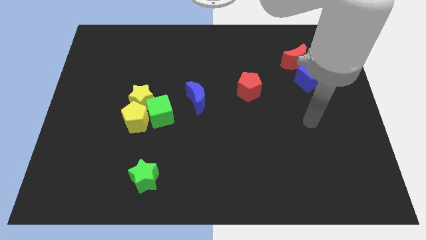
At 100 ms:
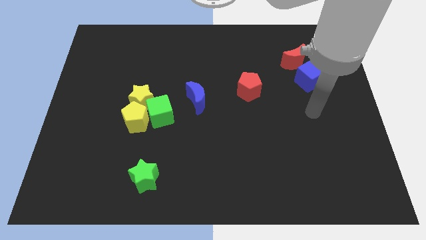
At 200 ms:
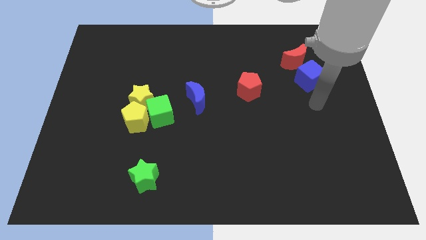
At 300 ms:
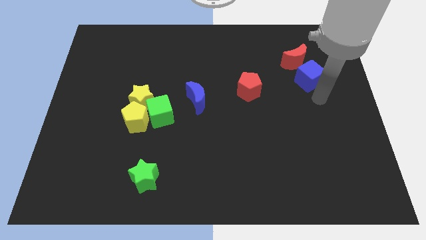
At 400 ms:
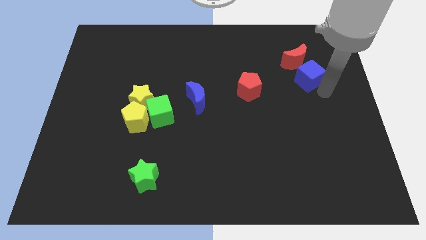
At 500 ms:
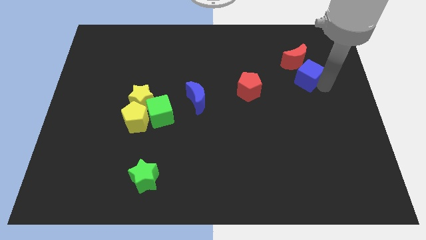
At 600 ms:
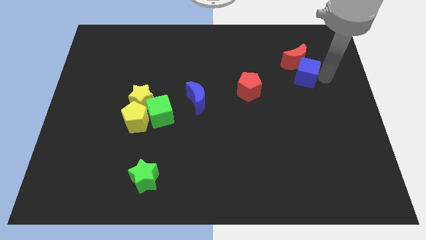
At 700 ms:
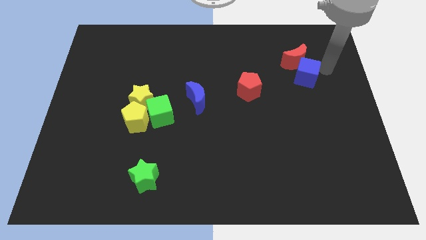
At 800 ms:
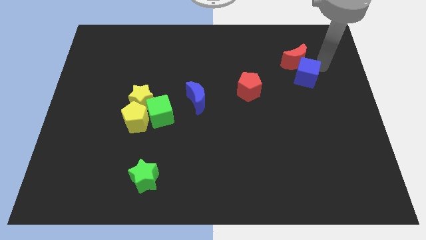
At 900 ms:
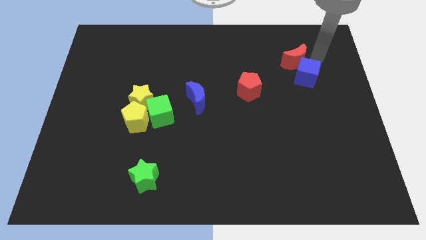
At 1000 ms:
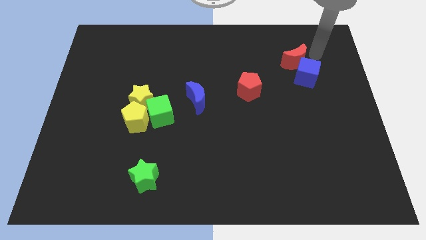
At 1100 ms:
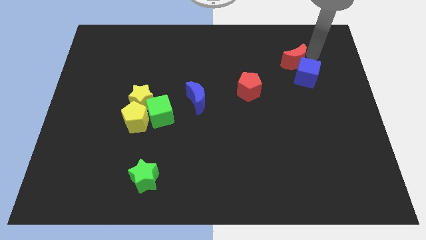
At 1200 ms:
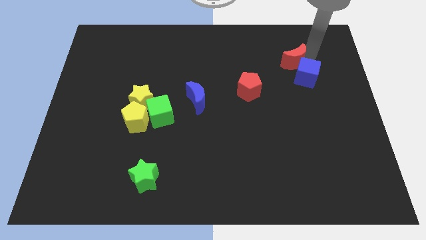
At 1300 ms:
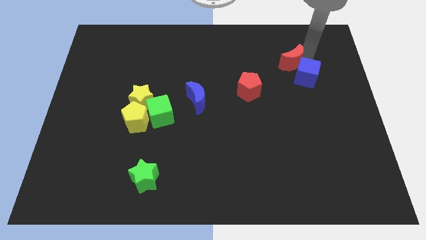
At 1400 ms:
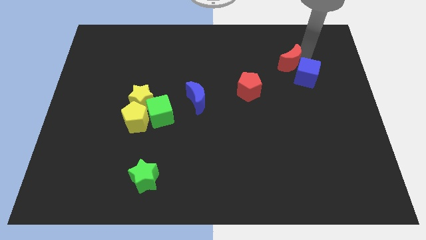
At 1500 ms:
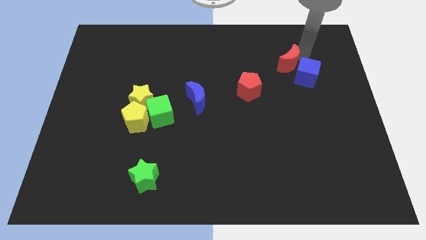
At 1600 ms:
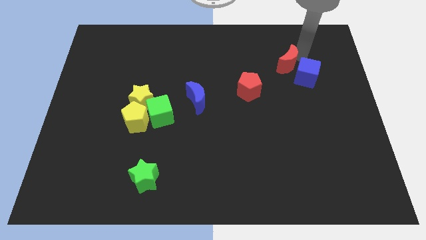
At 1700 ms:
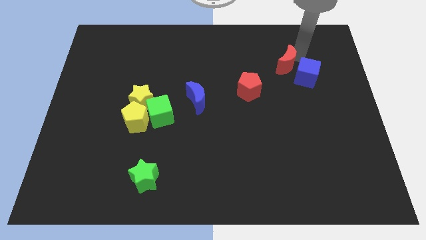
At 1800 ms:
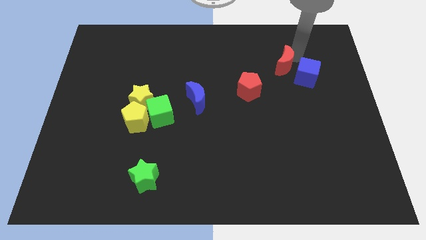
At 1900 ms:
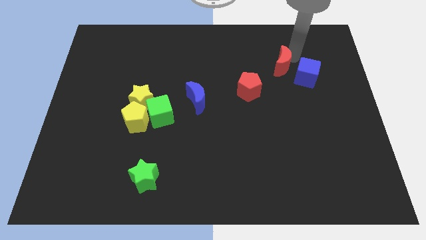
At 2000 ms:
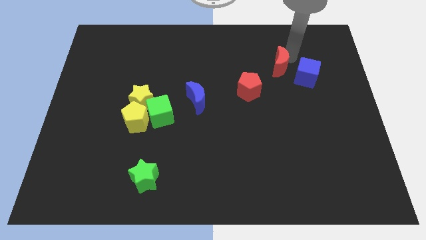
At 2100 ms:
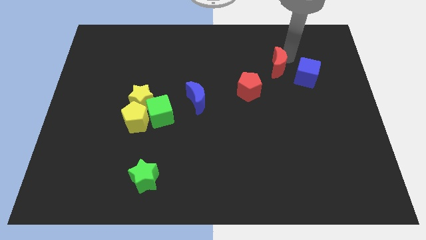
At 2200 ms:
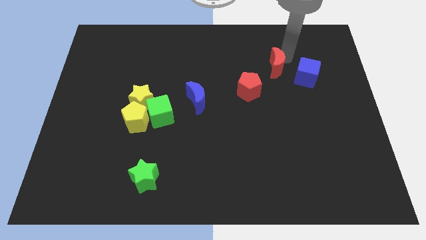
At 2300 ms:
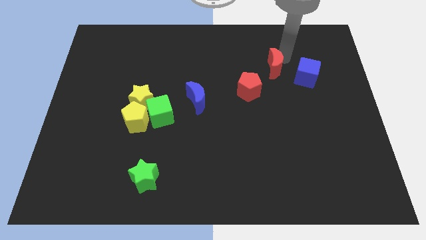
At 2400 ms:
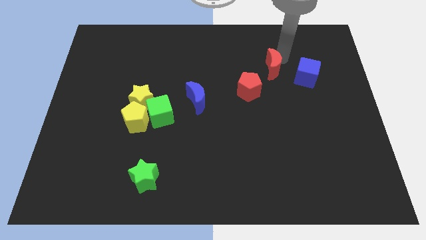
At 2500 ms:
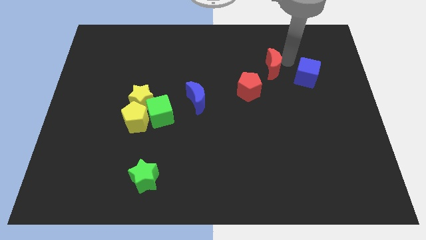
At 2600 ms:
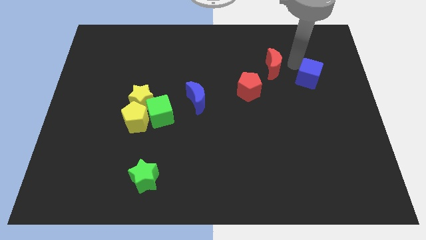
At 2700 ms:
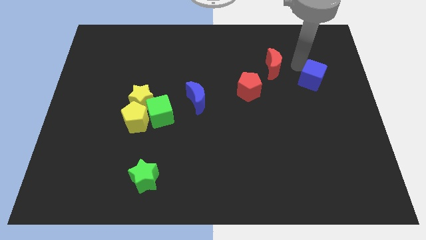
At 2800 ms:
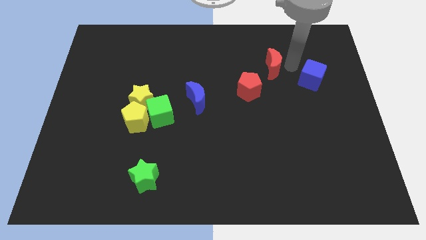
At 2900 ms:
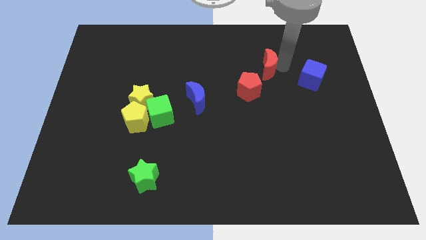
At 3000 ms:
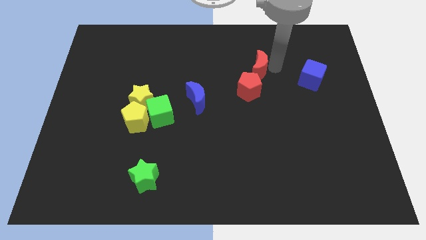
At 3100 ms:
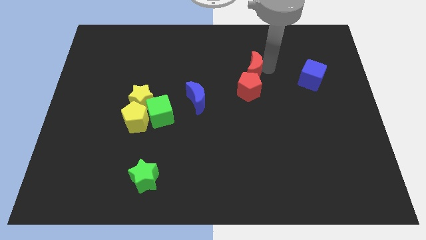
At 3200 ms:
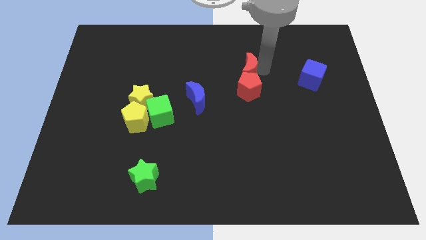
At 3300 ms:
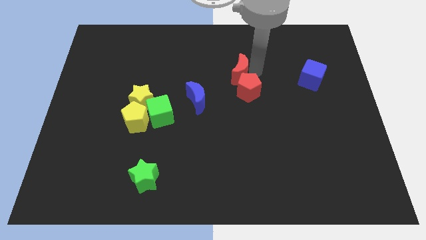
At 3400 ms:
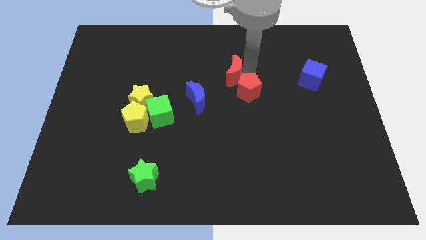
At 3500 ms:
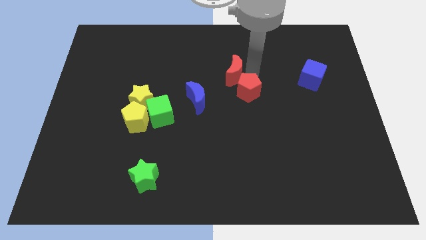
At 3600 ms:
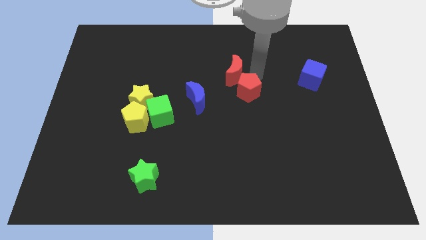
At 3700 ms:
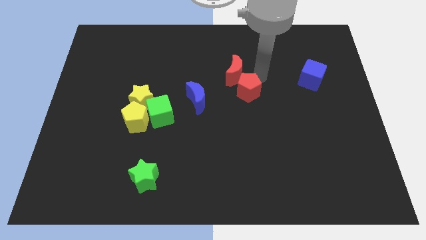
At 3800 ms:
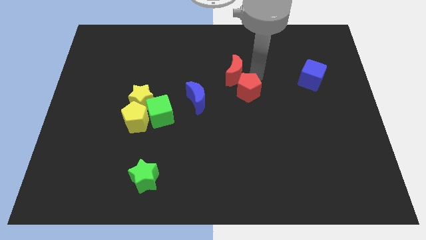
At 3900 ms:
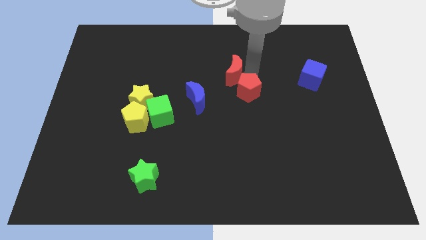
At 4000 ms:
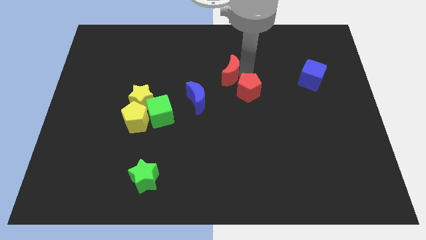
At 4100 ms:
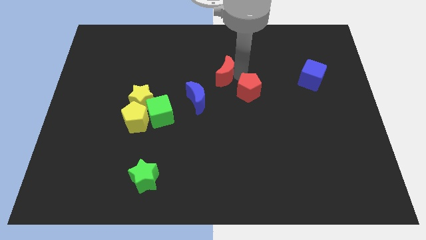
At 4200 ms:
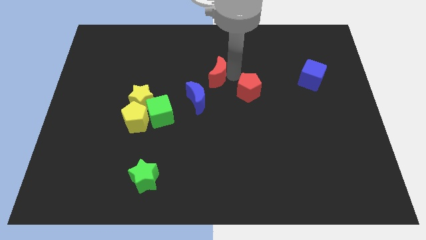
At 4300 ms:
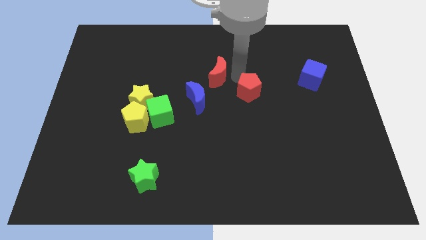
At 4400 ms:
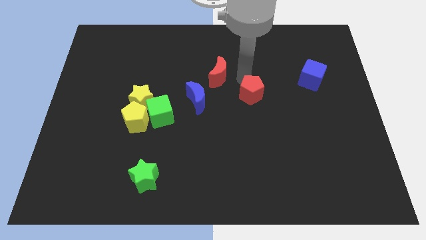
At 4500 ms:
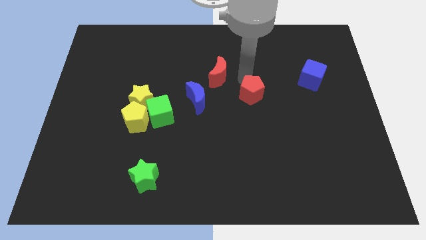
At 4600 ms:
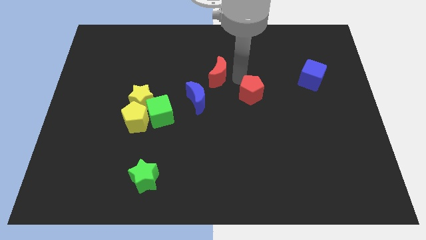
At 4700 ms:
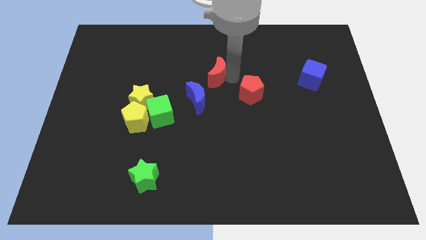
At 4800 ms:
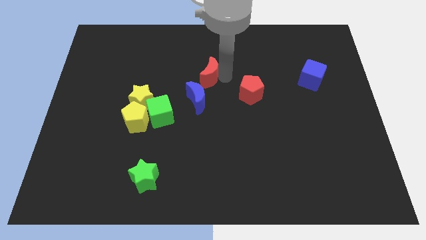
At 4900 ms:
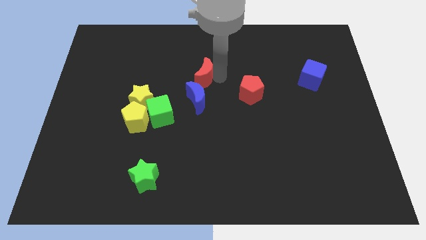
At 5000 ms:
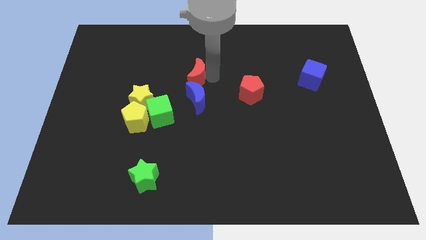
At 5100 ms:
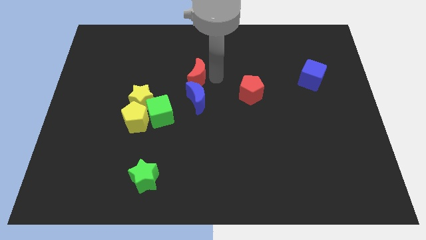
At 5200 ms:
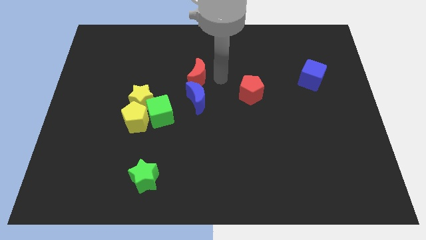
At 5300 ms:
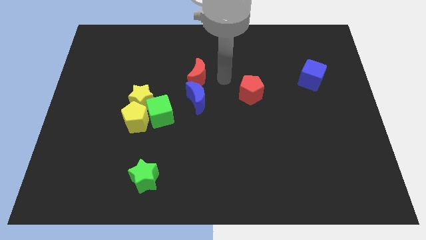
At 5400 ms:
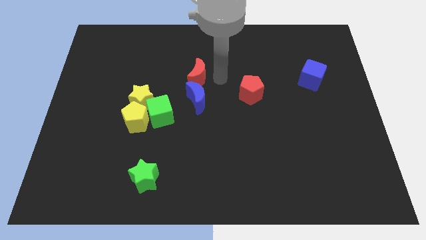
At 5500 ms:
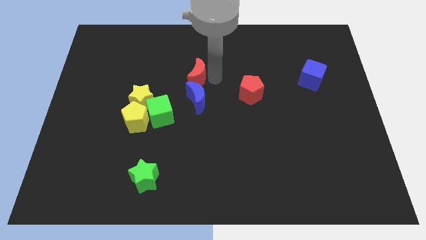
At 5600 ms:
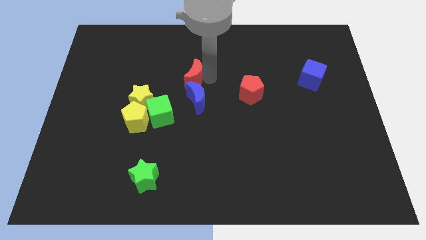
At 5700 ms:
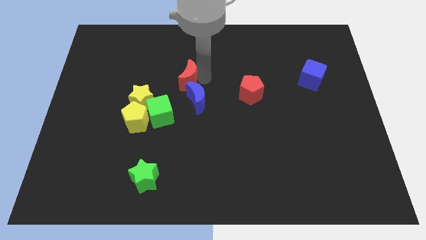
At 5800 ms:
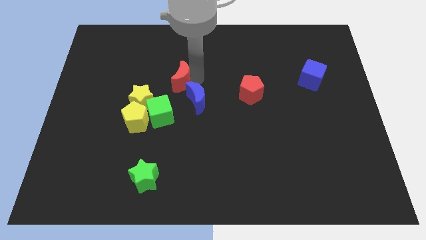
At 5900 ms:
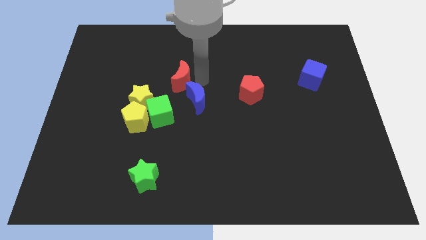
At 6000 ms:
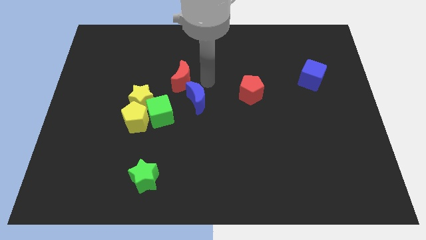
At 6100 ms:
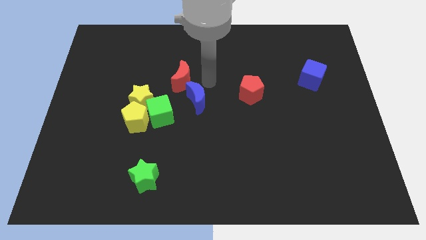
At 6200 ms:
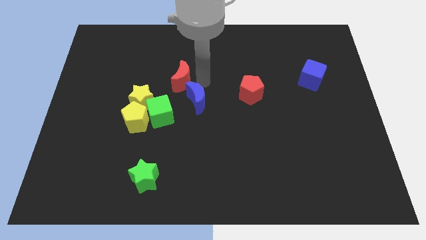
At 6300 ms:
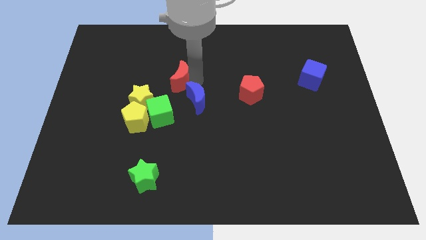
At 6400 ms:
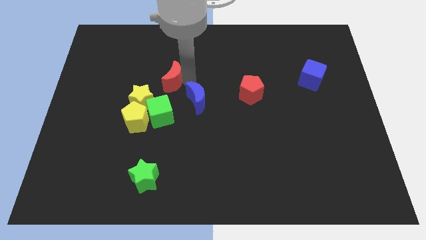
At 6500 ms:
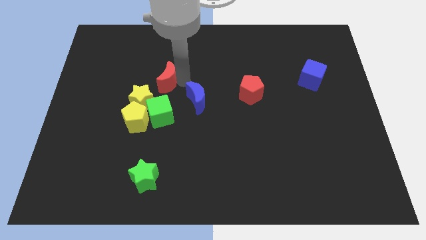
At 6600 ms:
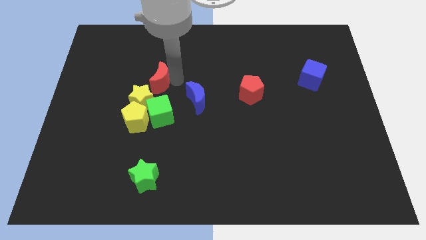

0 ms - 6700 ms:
move the red moon to the top side of the yellow pentagon

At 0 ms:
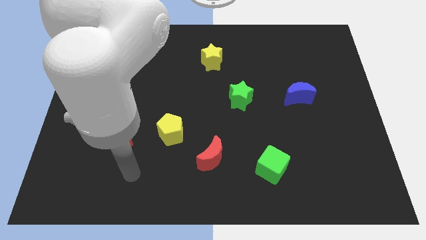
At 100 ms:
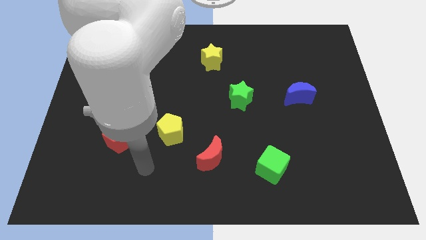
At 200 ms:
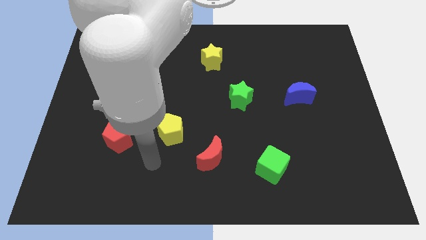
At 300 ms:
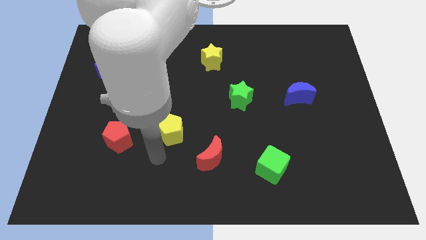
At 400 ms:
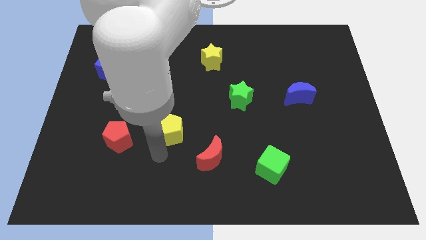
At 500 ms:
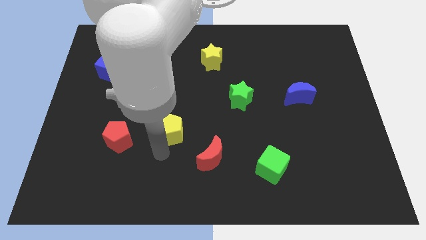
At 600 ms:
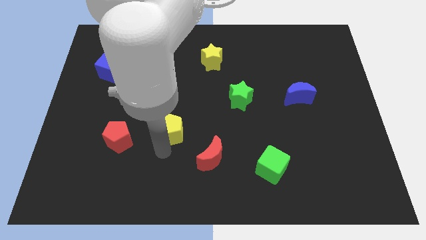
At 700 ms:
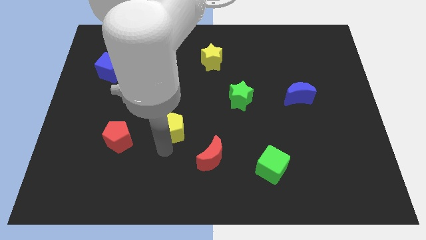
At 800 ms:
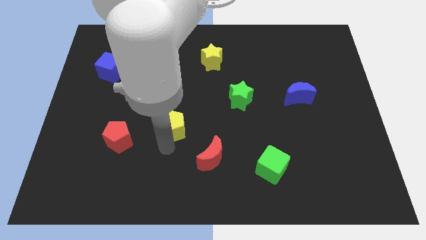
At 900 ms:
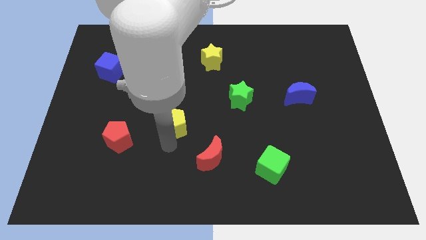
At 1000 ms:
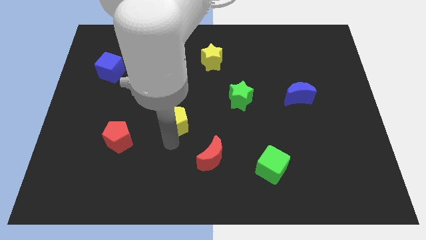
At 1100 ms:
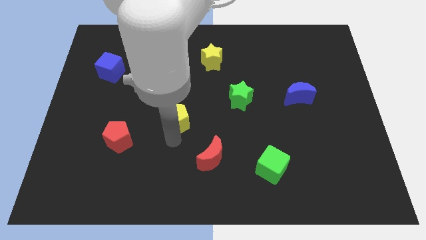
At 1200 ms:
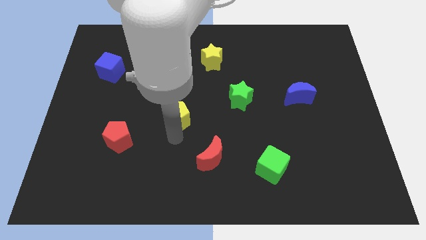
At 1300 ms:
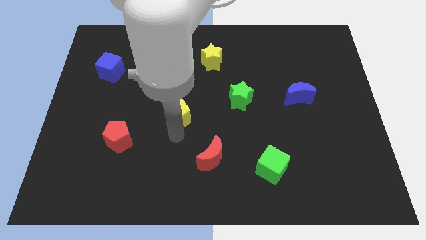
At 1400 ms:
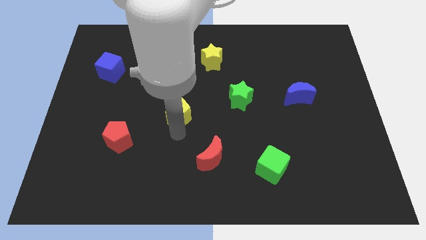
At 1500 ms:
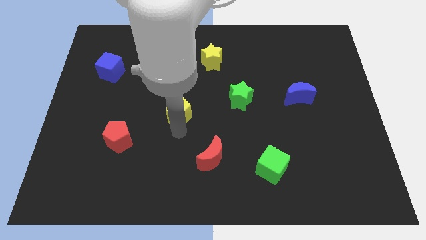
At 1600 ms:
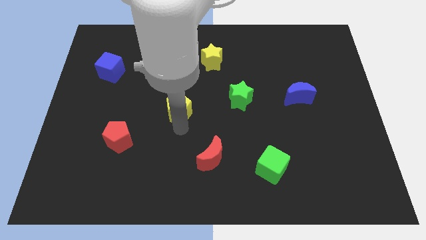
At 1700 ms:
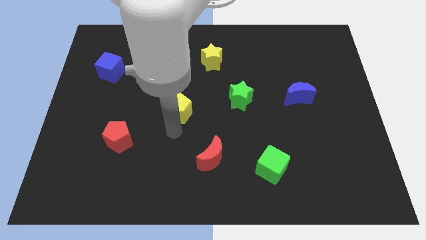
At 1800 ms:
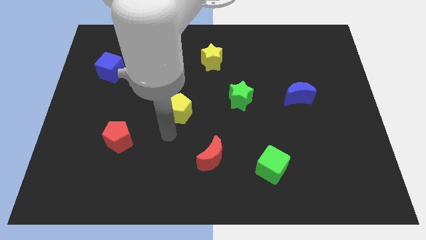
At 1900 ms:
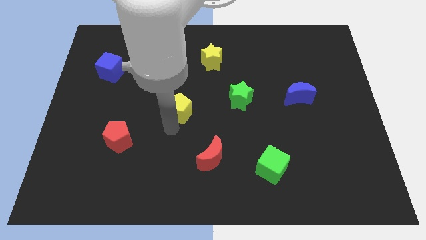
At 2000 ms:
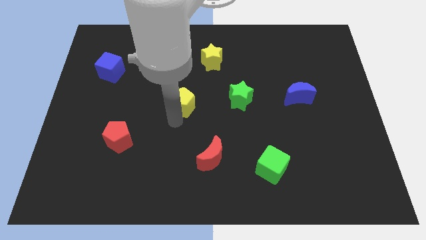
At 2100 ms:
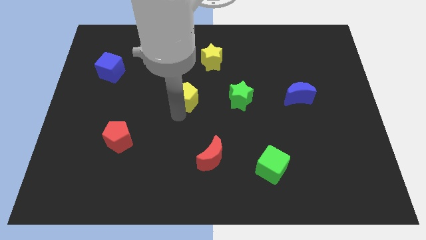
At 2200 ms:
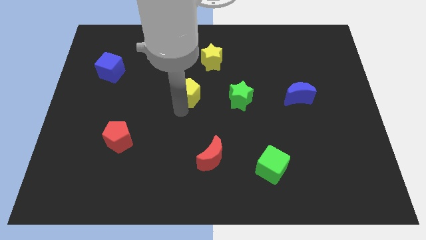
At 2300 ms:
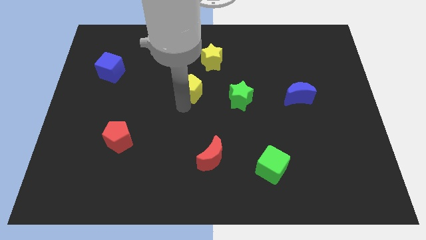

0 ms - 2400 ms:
move the yellow pentagon to the bottom left side of the yellow star
